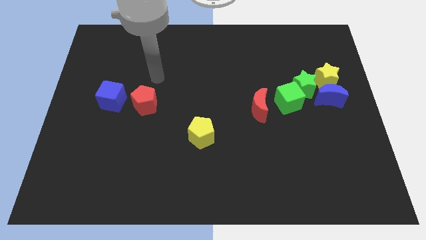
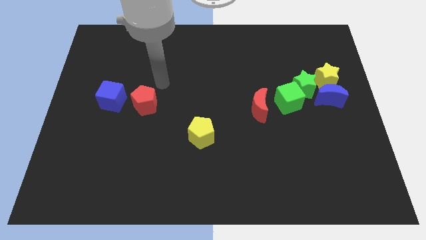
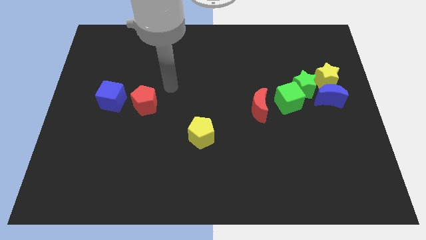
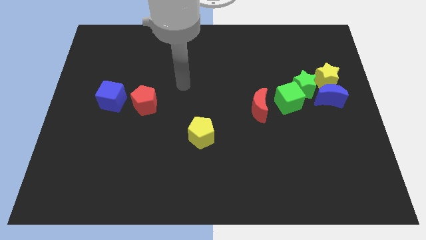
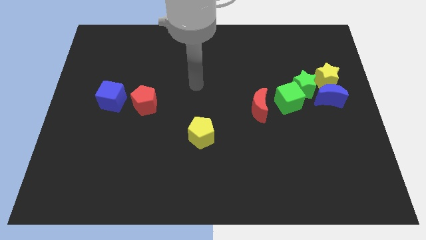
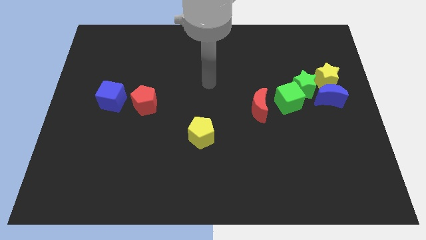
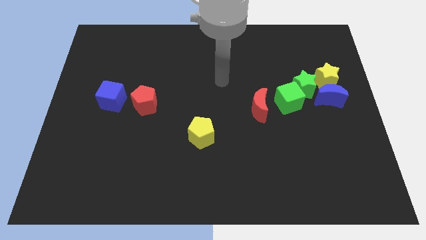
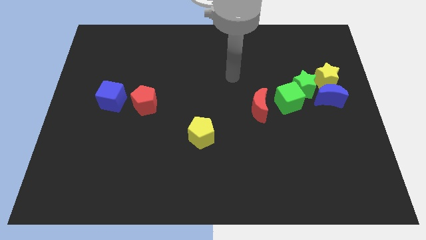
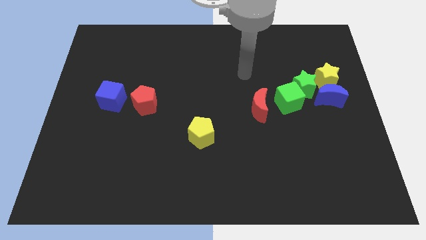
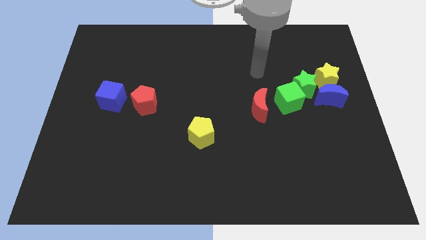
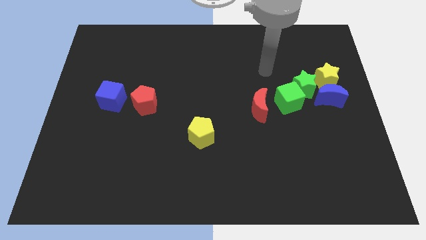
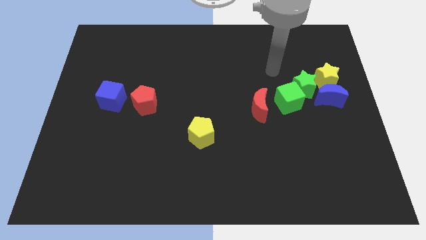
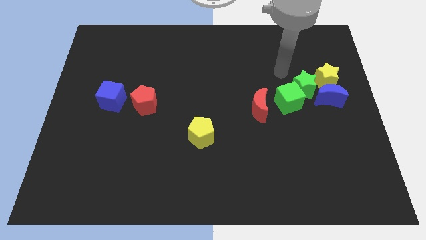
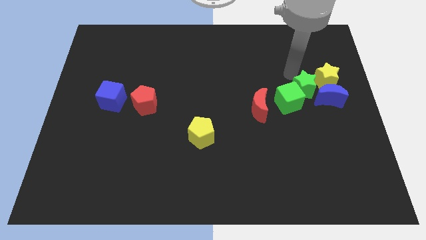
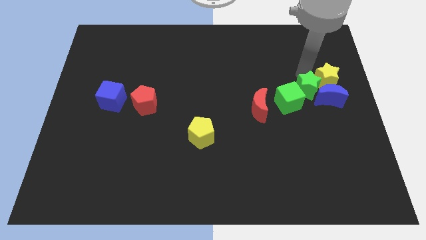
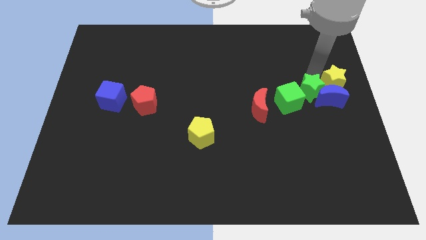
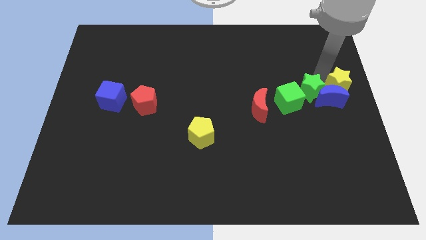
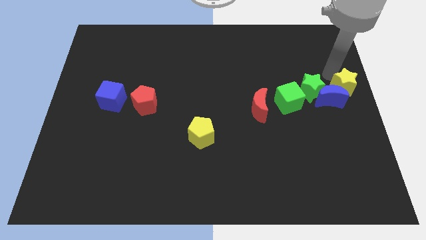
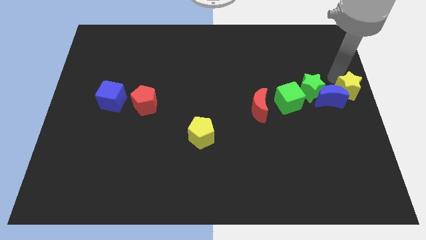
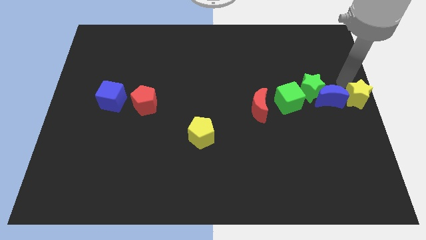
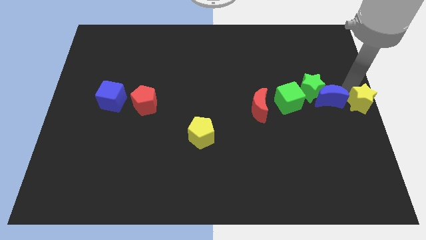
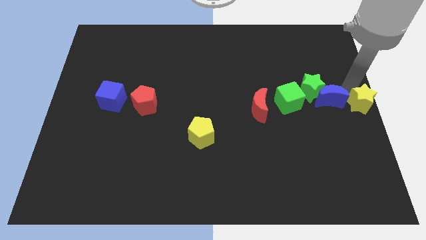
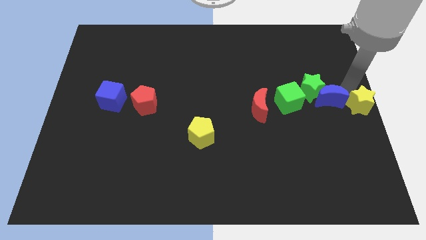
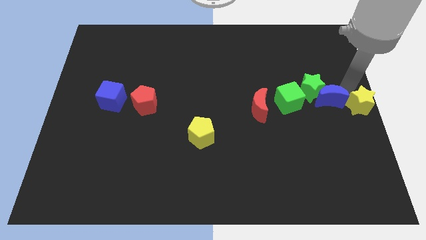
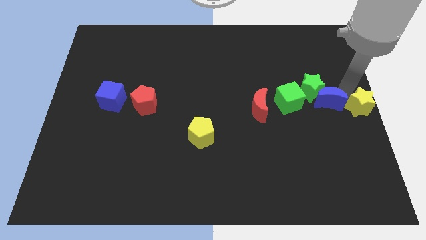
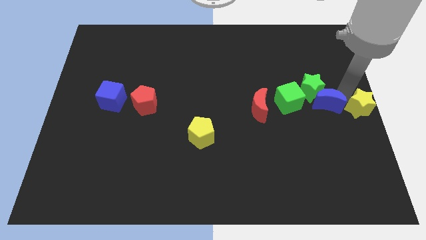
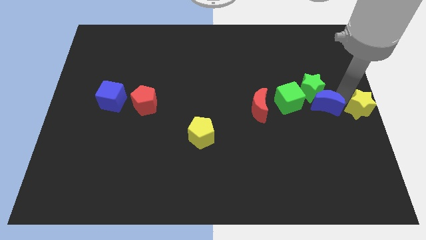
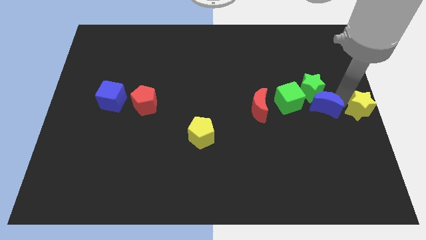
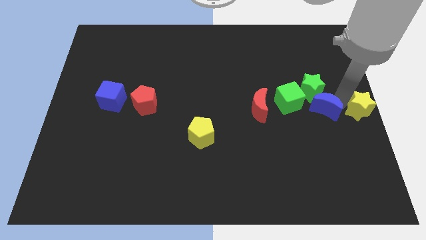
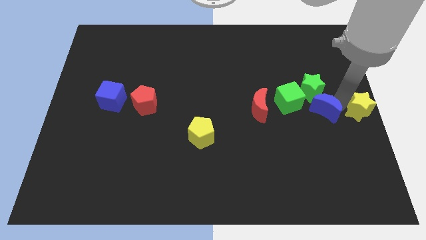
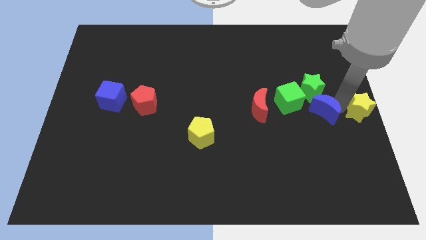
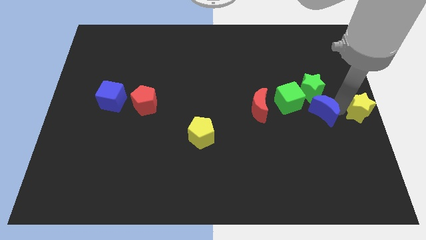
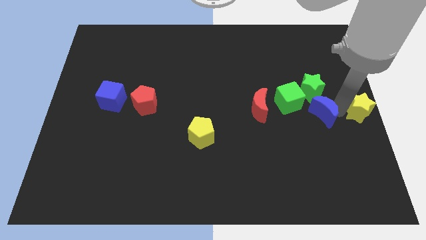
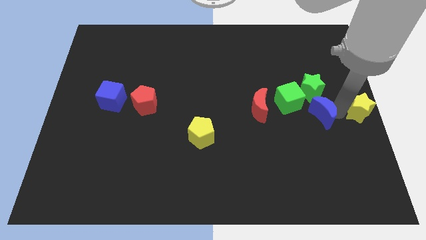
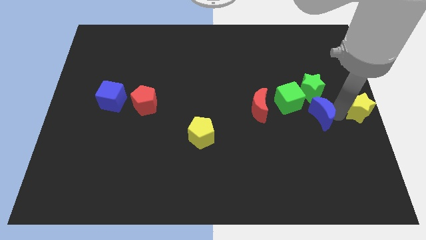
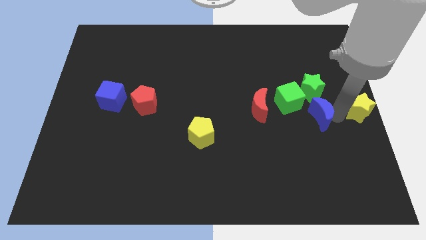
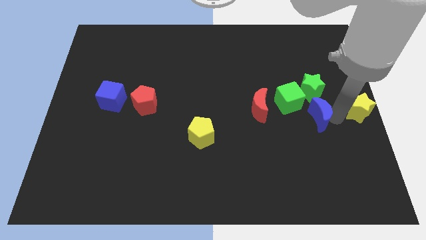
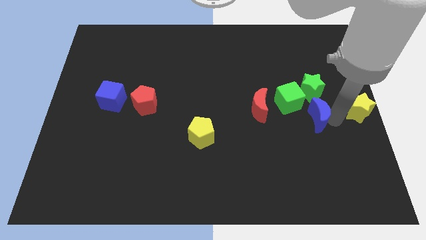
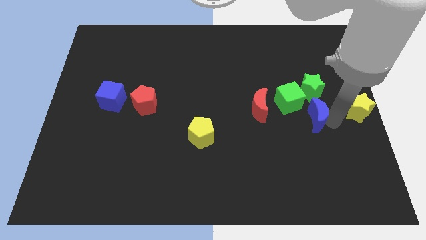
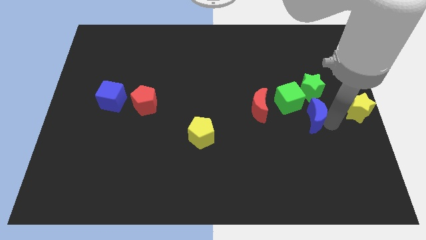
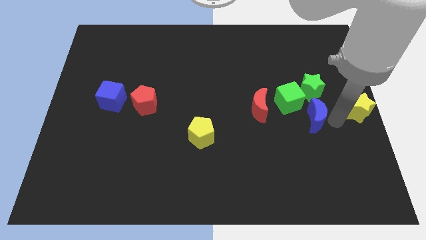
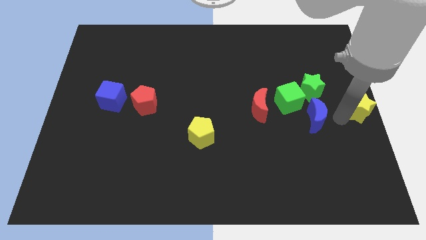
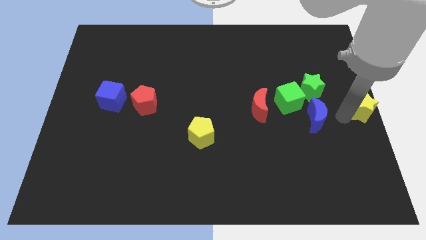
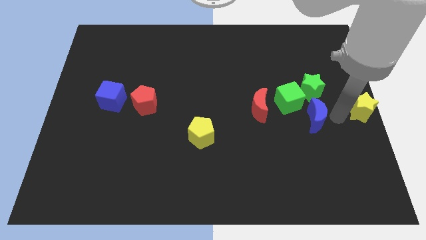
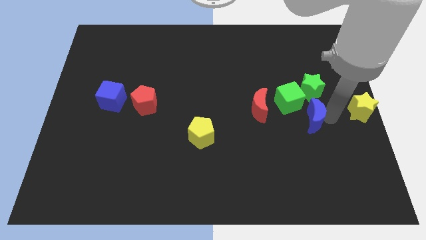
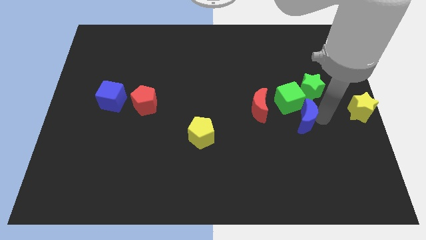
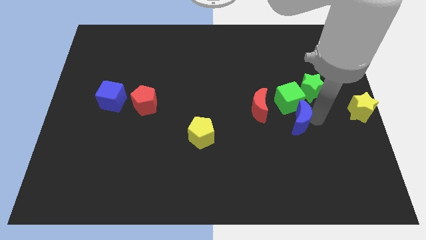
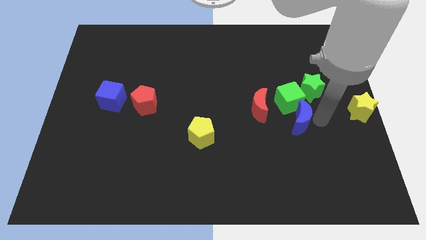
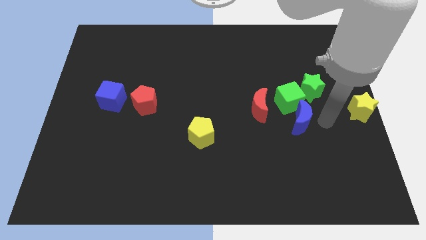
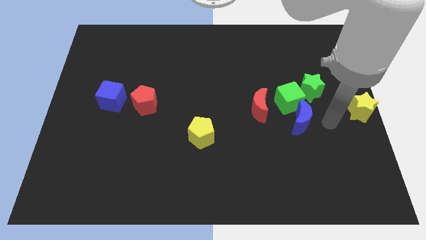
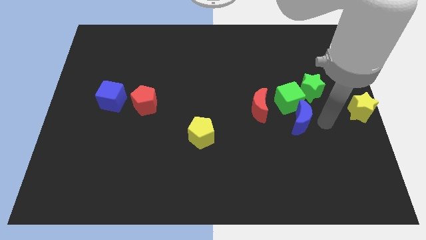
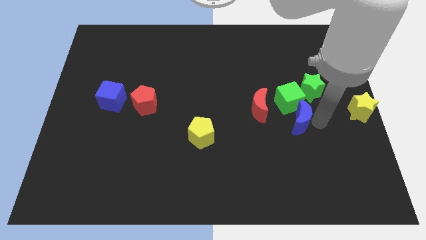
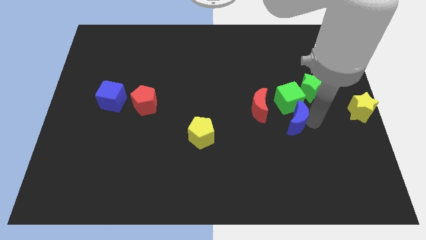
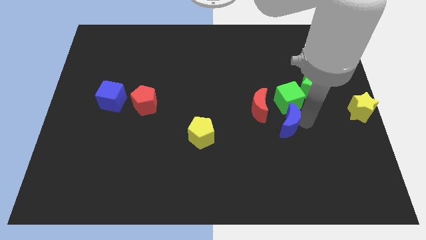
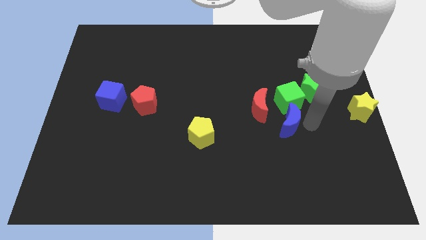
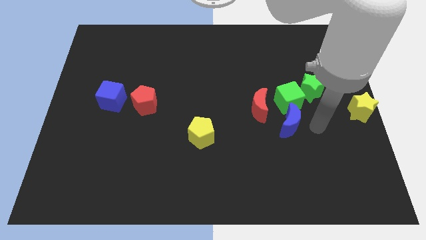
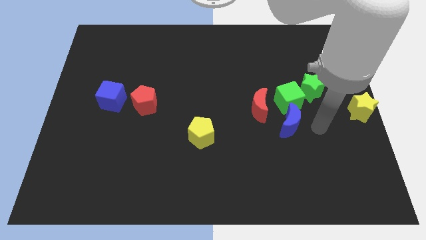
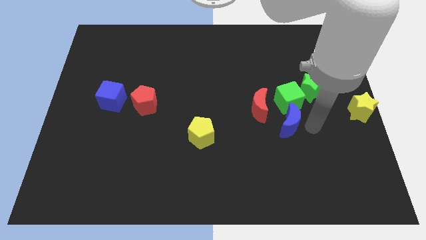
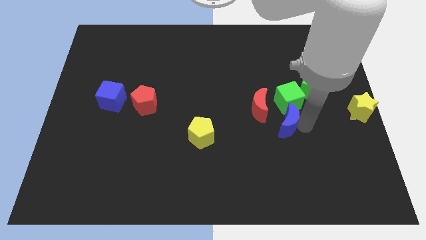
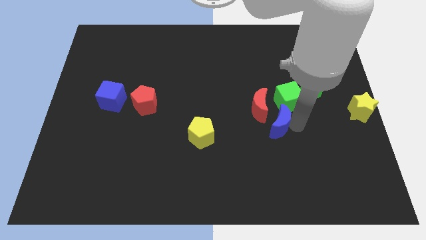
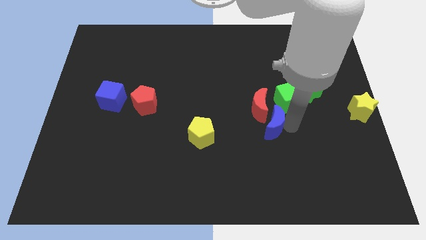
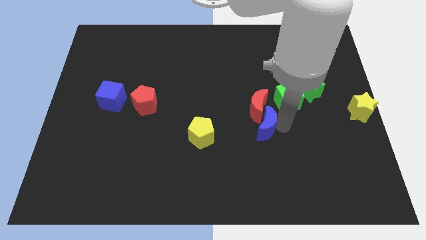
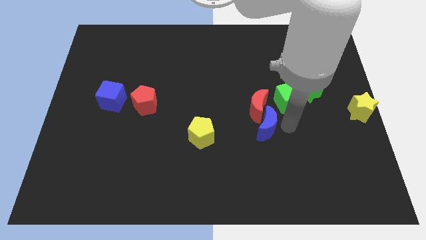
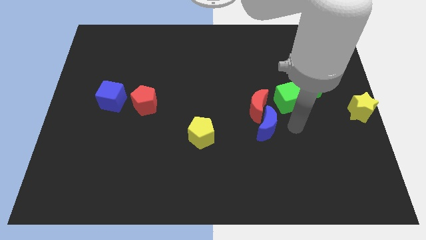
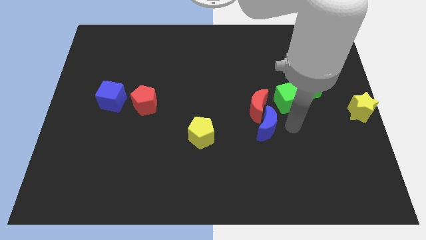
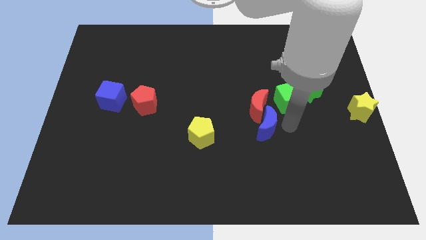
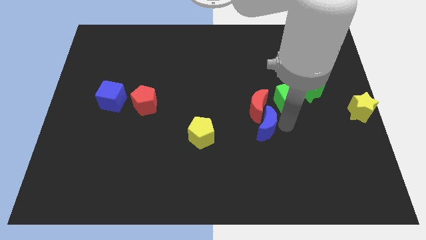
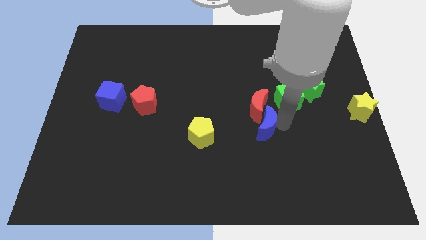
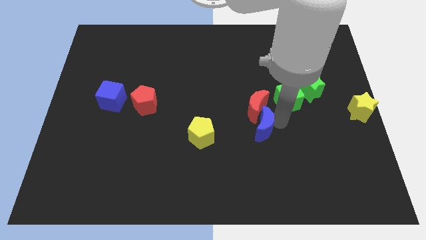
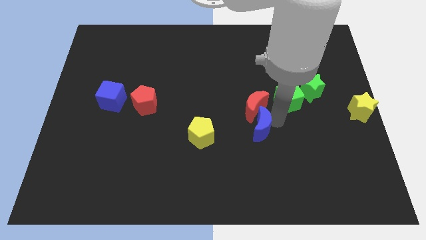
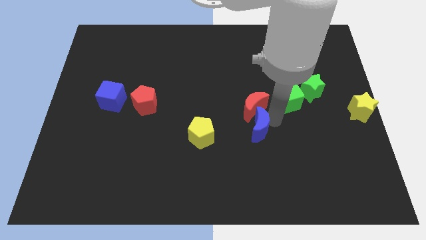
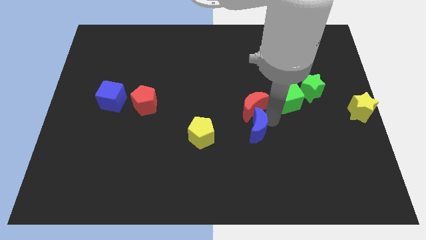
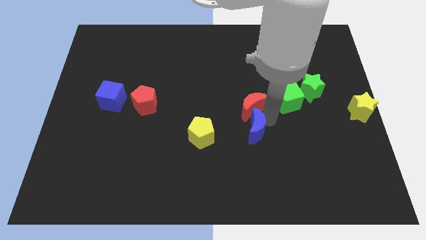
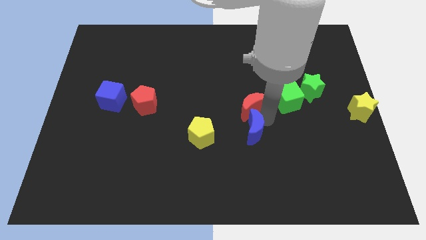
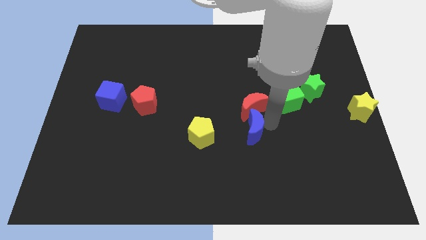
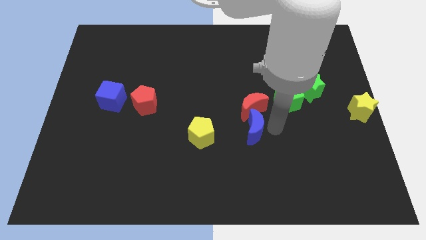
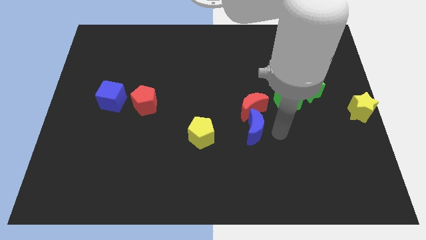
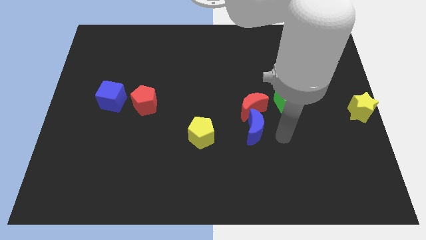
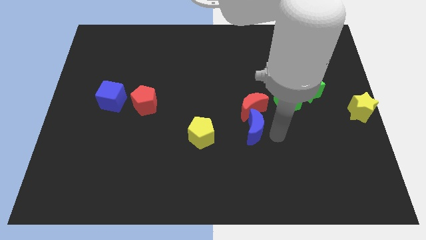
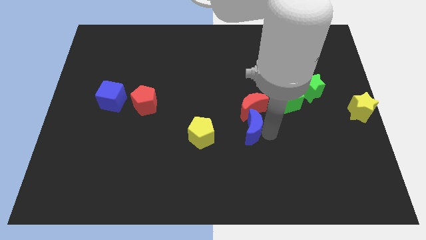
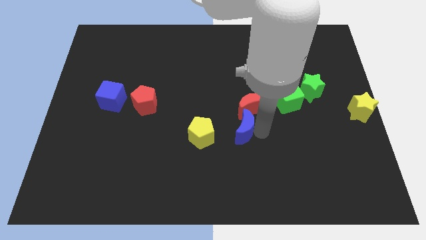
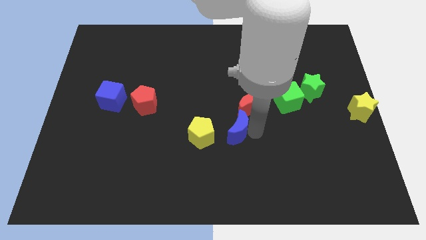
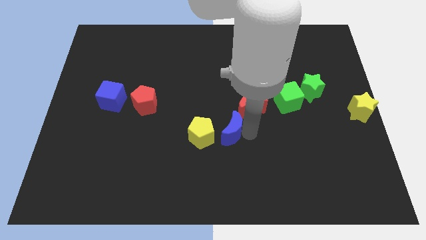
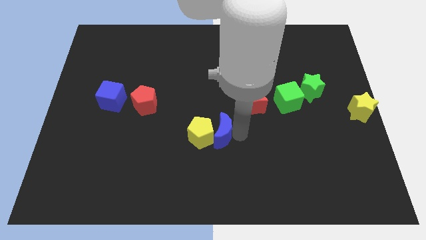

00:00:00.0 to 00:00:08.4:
slide the blue moon left
